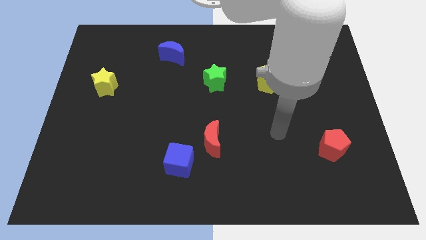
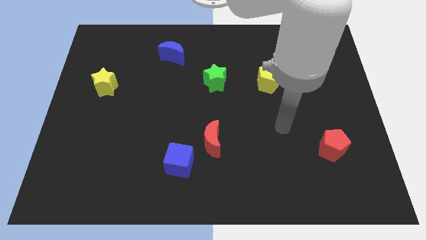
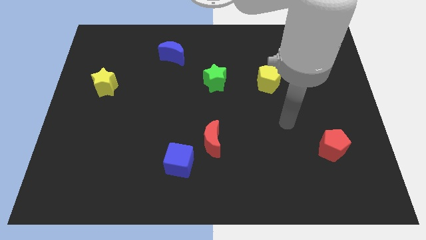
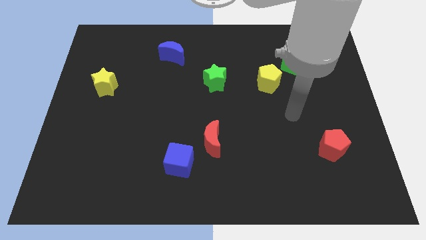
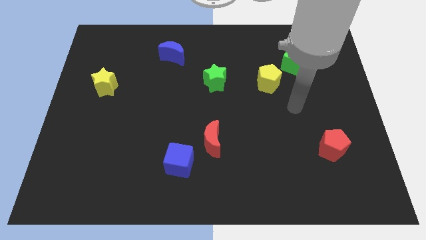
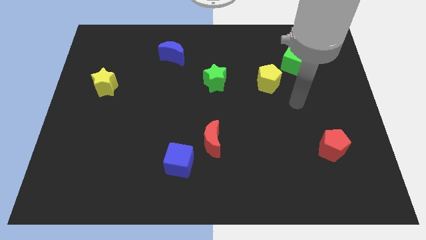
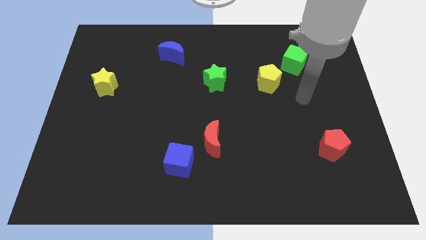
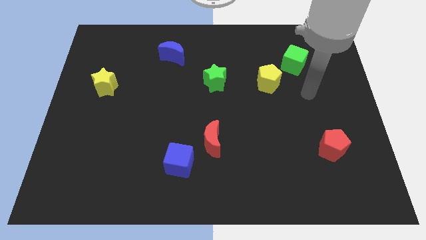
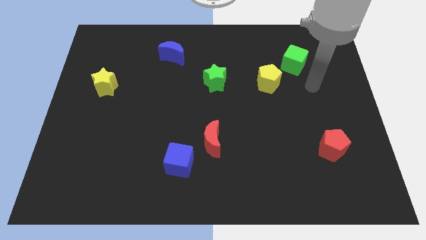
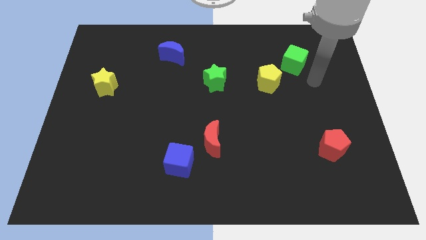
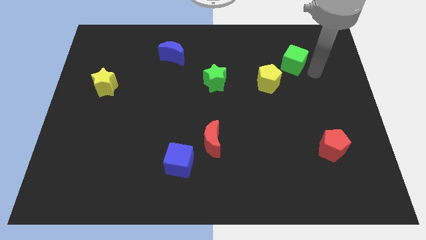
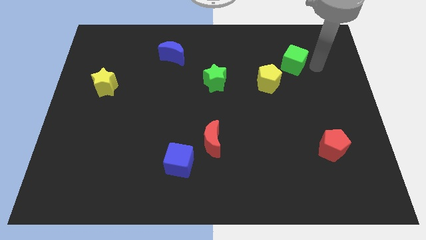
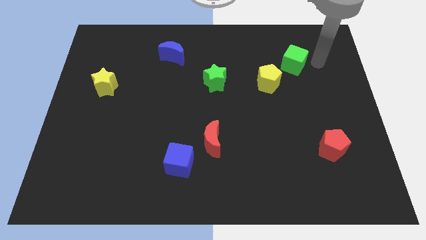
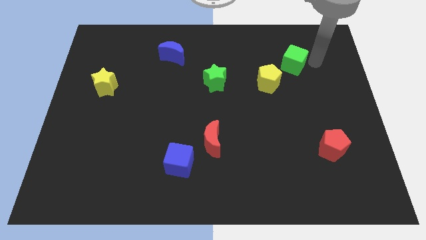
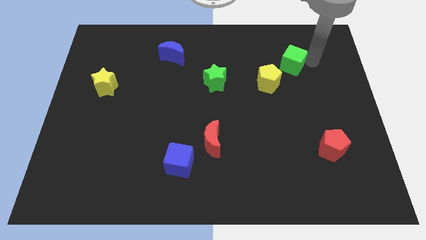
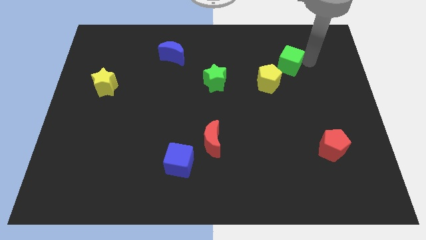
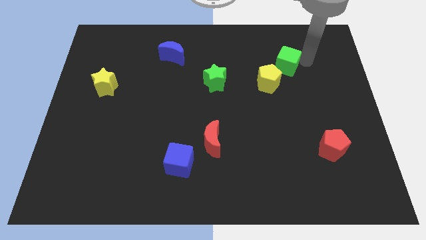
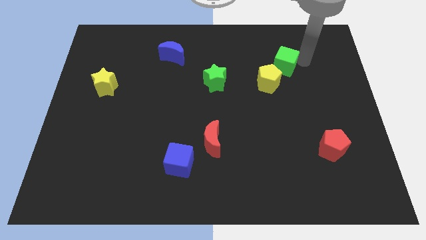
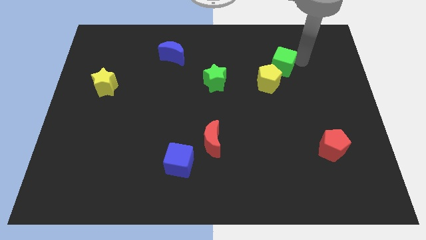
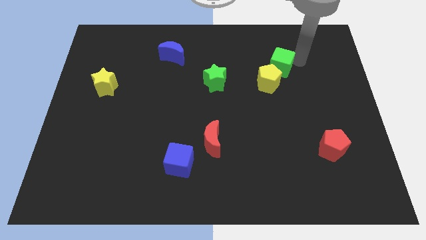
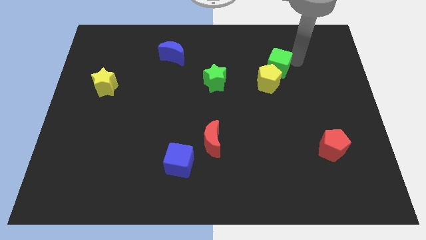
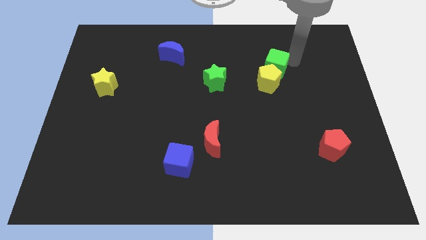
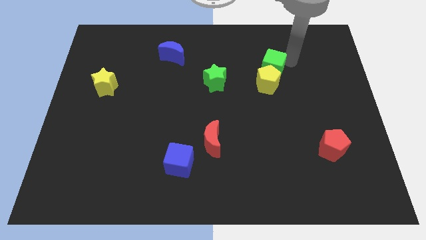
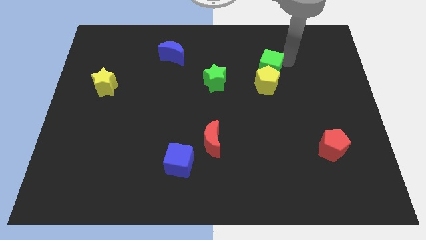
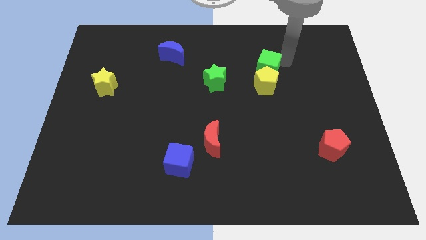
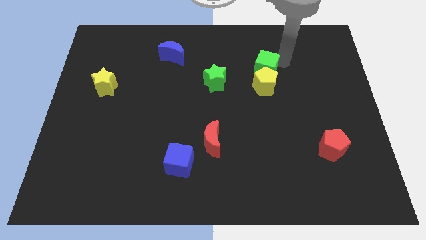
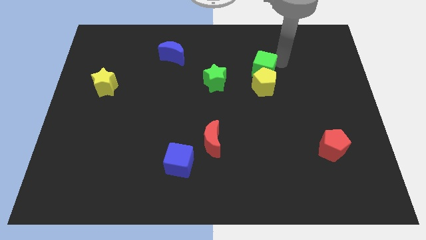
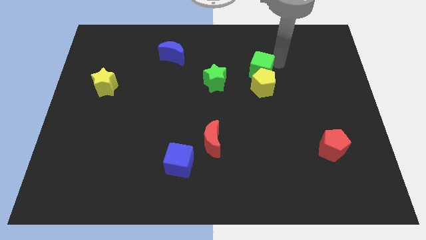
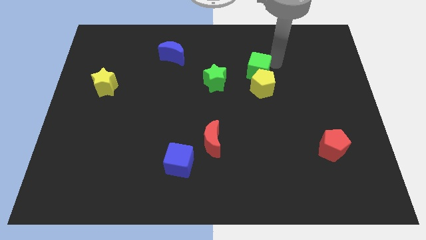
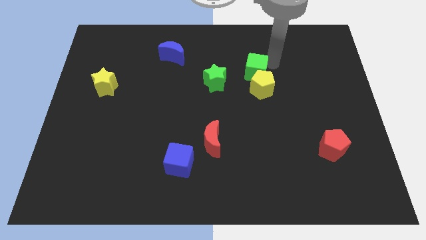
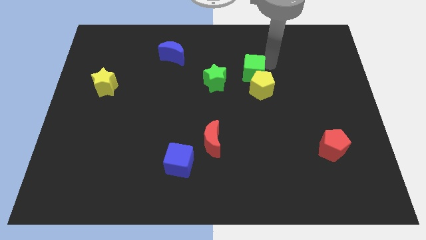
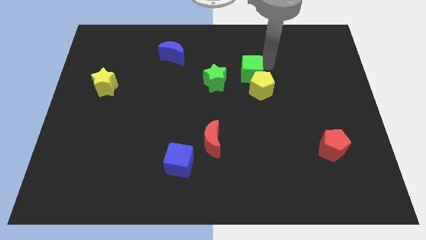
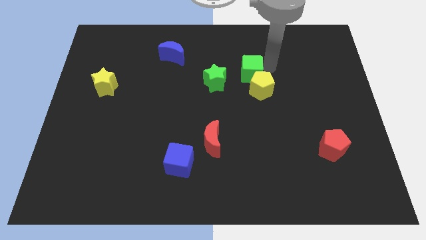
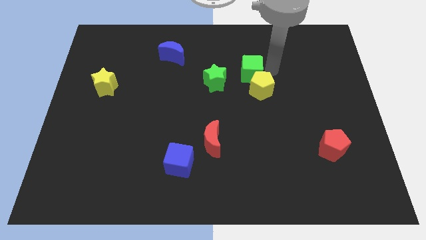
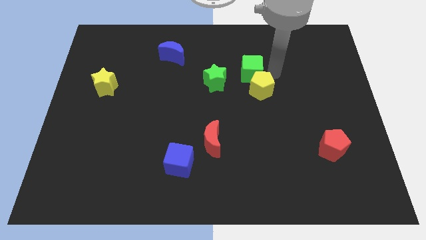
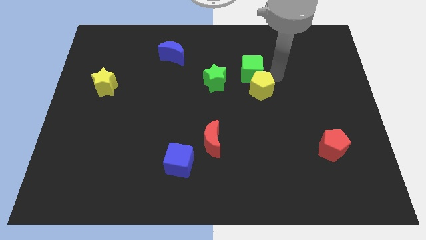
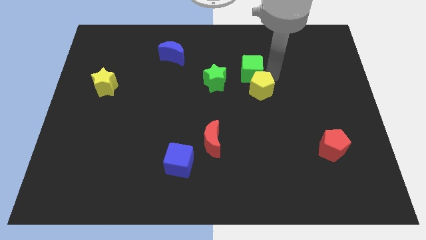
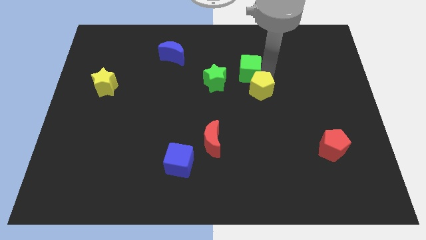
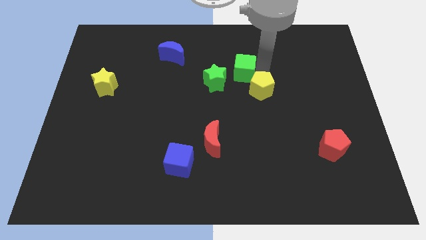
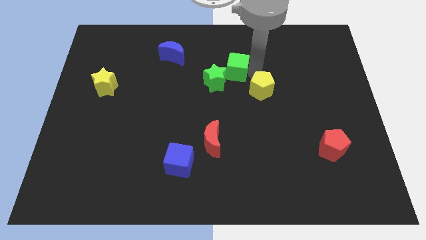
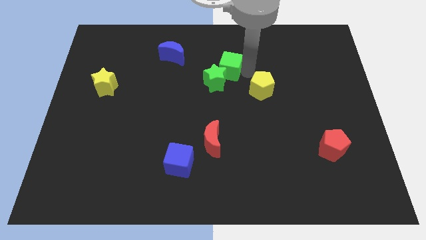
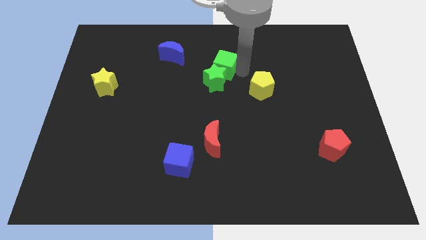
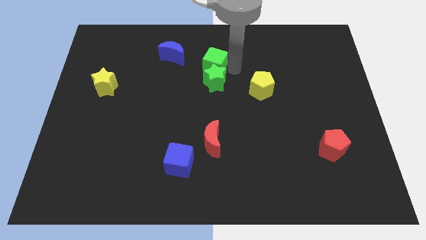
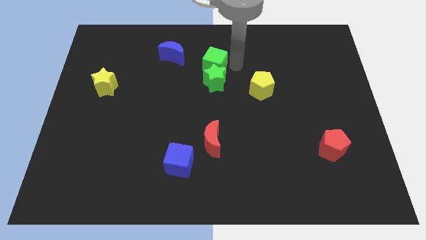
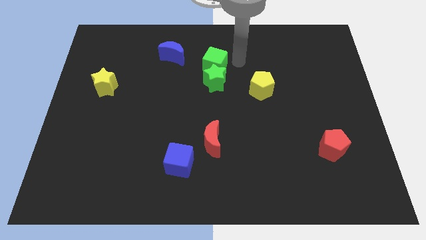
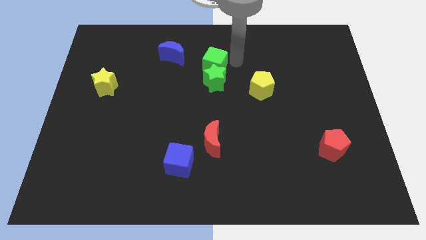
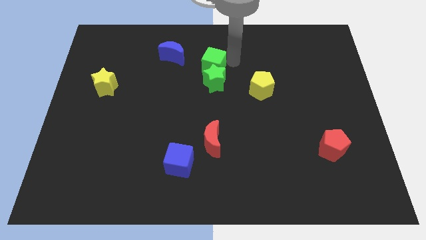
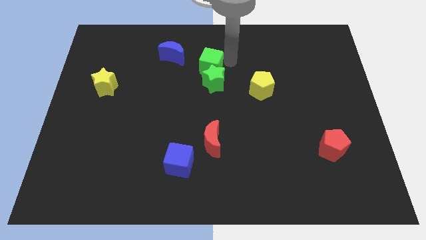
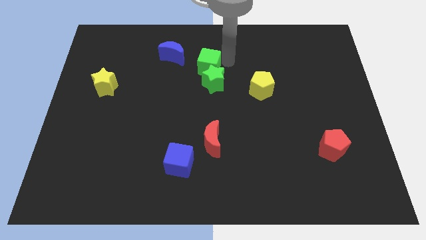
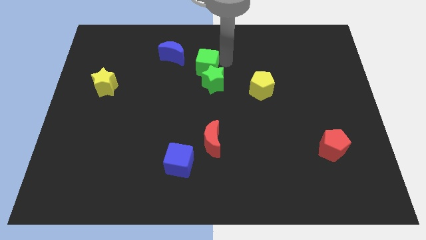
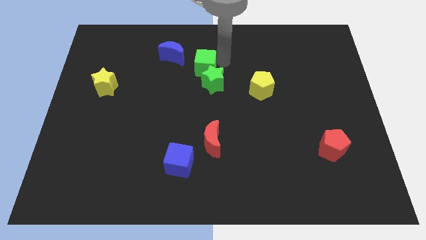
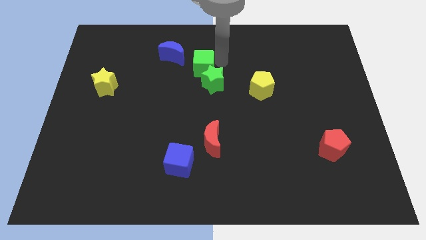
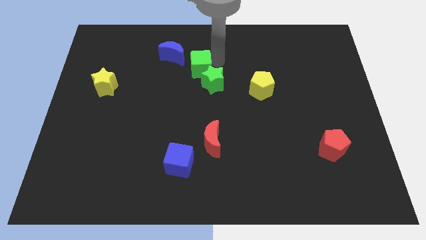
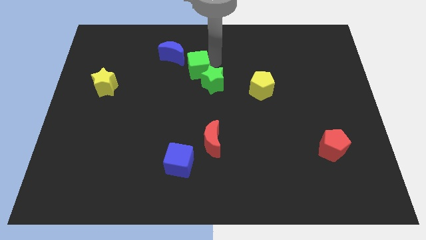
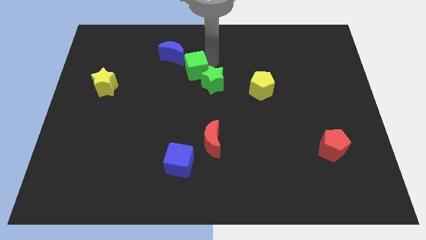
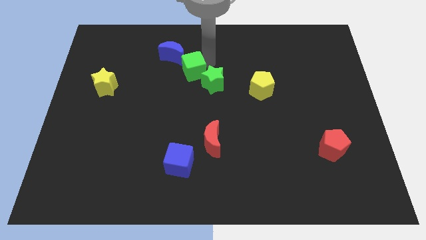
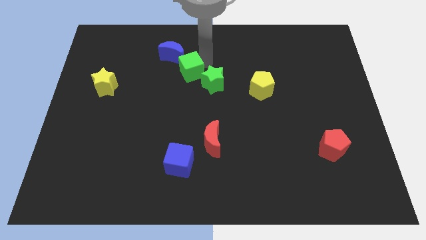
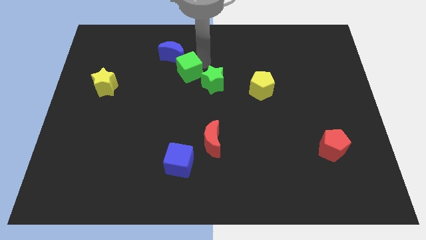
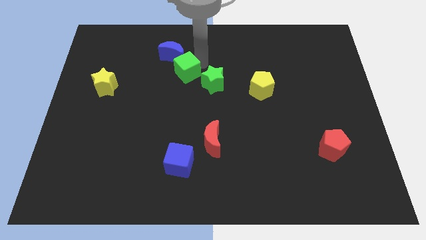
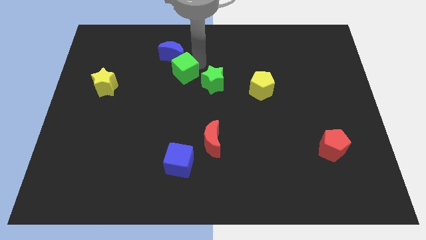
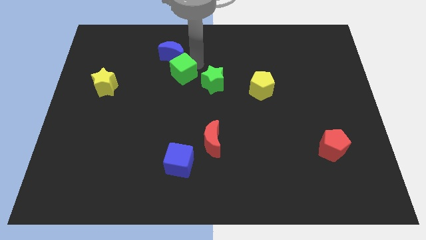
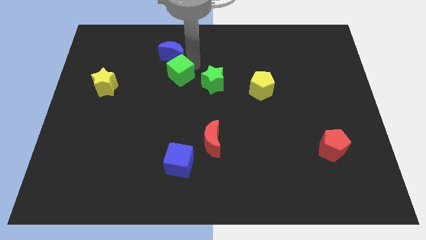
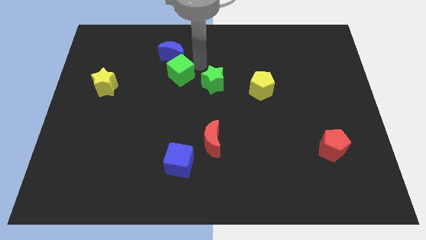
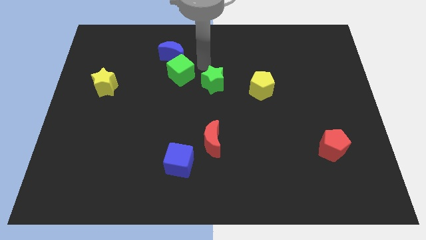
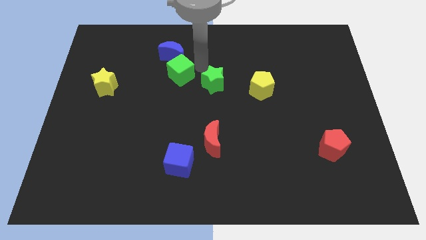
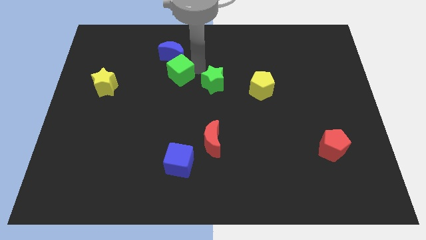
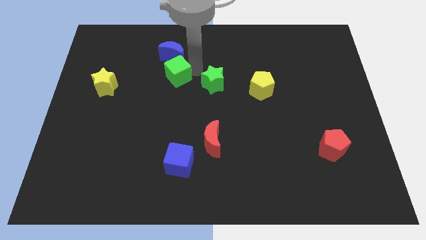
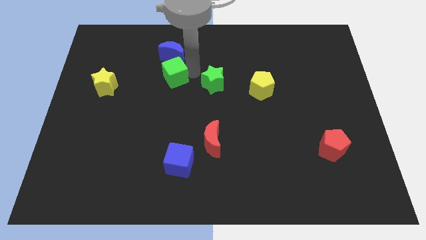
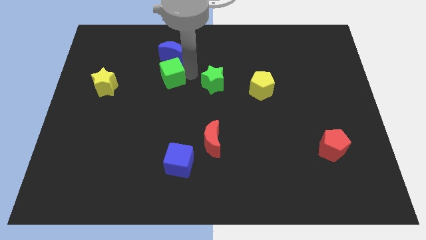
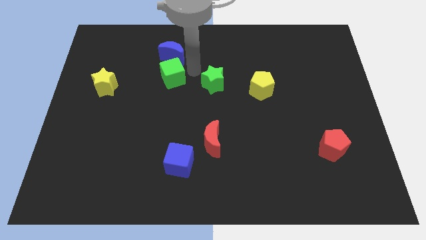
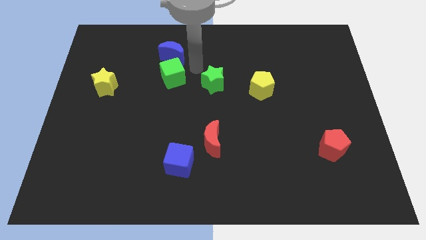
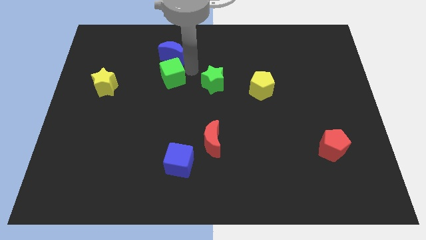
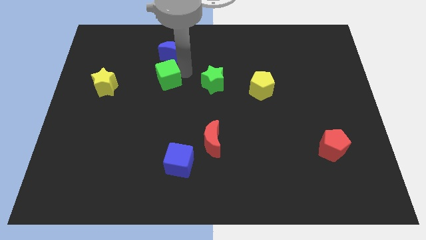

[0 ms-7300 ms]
move the green cube just right of the yellow star

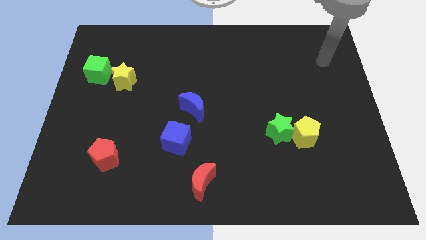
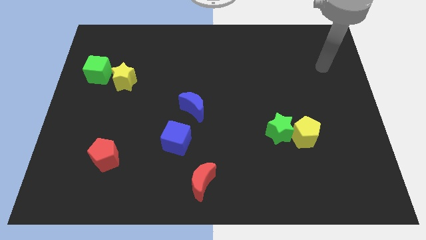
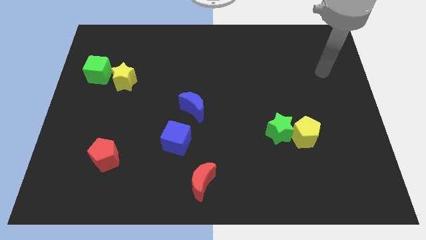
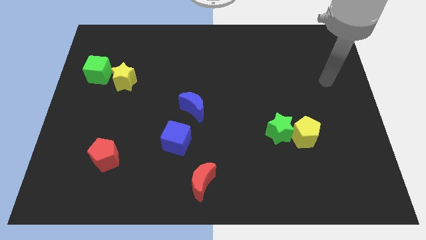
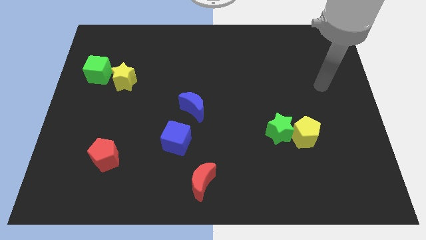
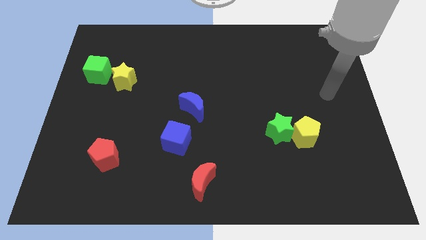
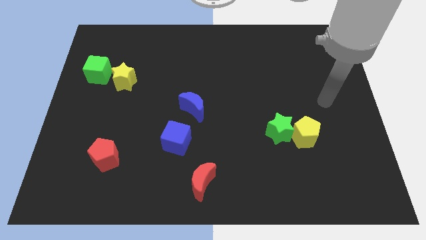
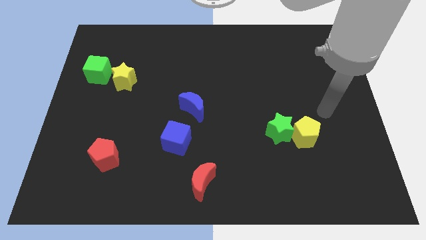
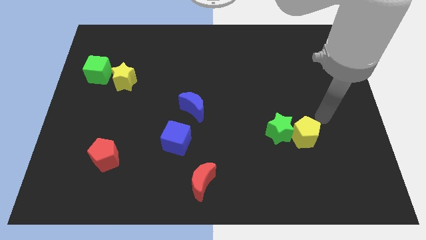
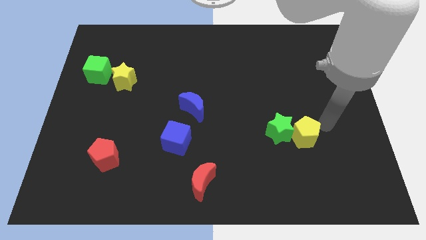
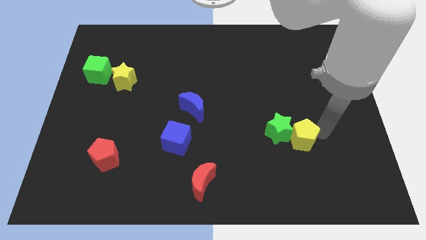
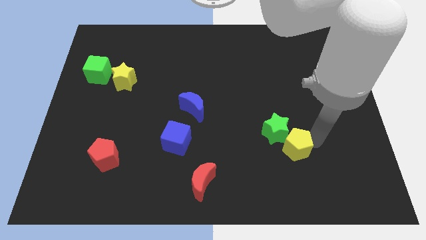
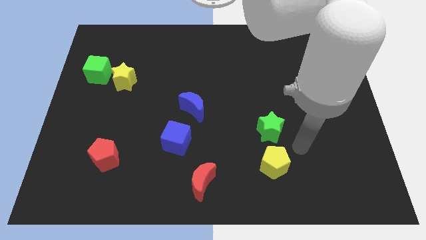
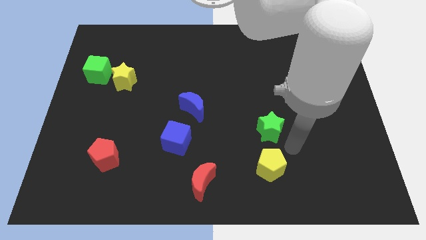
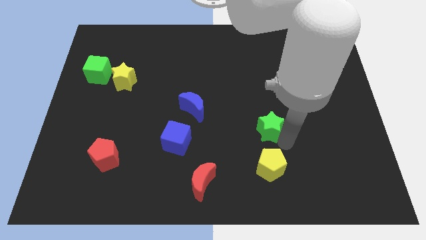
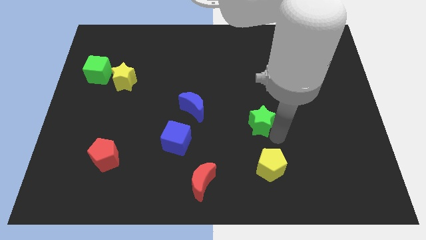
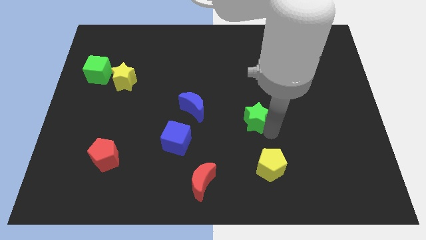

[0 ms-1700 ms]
slide the green star right of the blue moon
